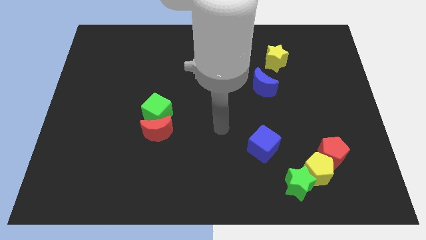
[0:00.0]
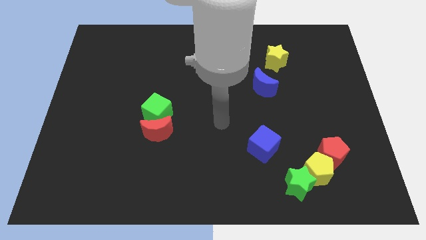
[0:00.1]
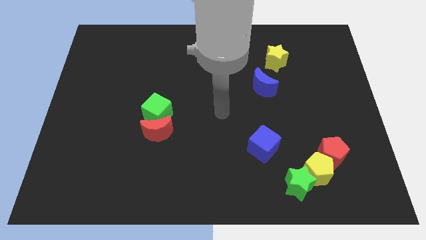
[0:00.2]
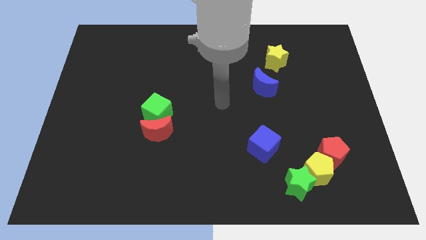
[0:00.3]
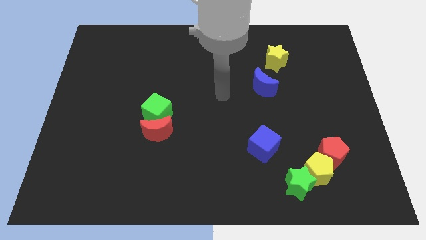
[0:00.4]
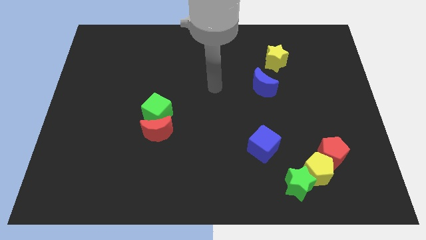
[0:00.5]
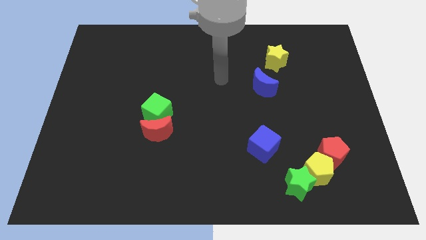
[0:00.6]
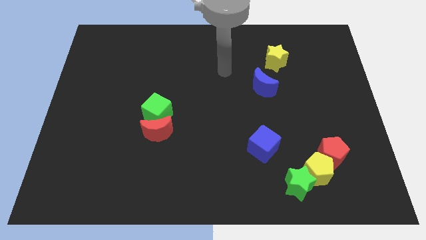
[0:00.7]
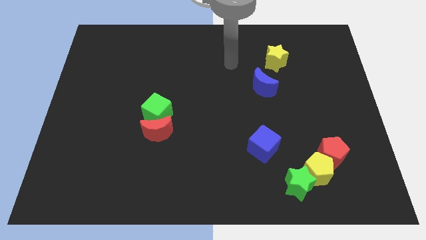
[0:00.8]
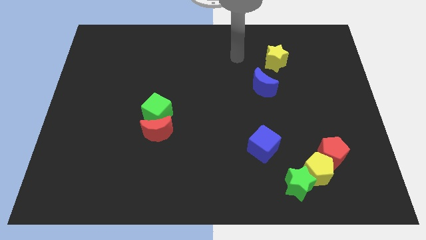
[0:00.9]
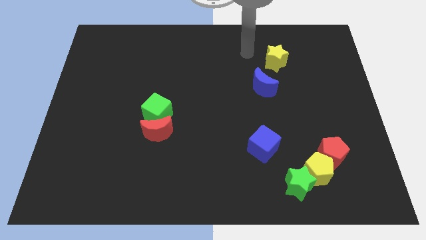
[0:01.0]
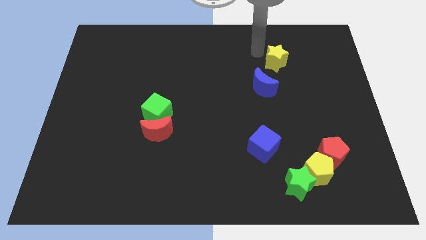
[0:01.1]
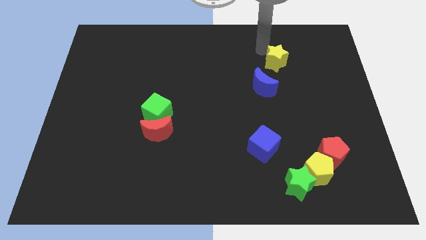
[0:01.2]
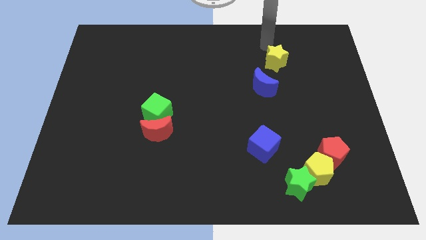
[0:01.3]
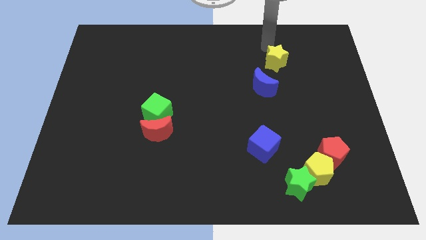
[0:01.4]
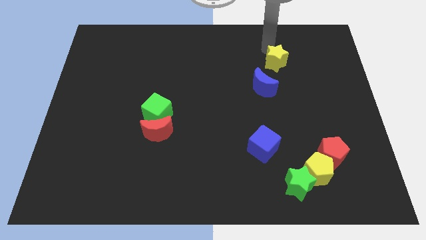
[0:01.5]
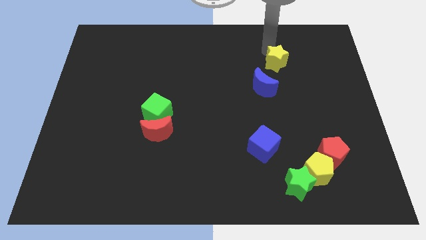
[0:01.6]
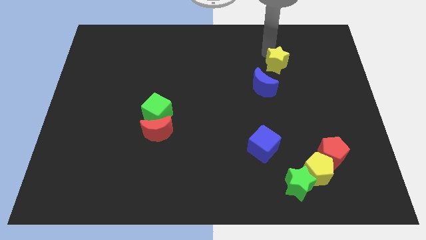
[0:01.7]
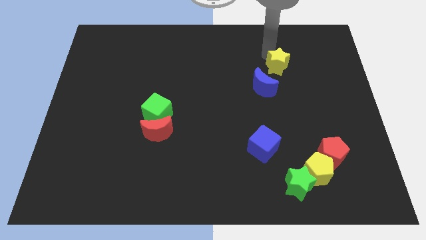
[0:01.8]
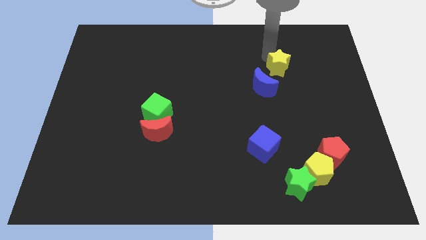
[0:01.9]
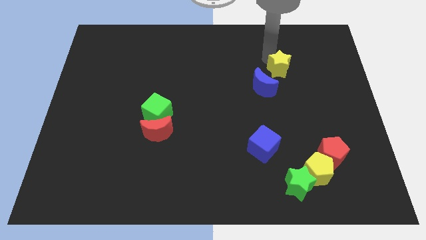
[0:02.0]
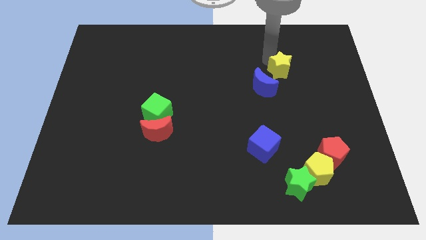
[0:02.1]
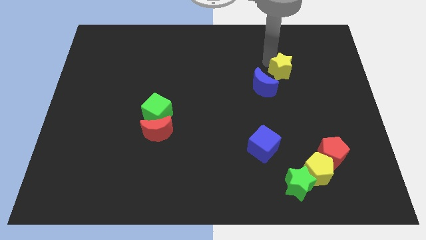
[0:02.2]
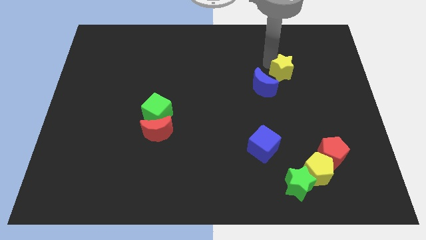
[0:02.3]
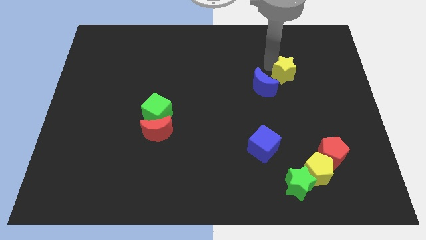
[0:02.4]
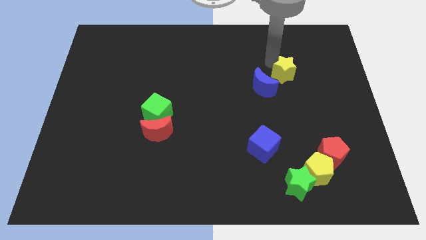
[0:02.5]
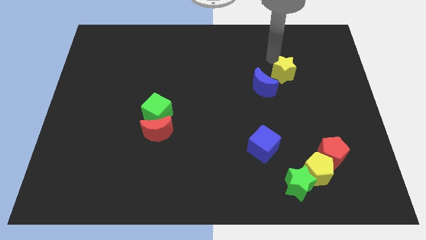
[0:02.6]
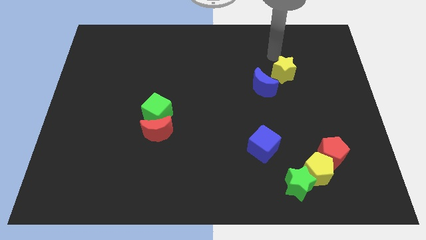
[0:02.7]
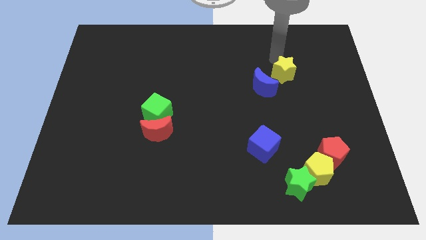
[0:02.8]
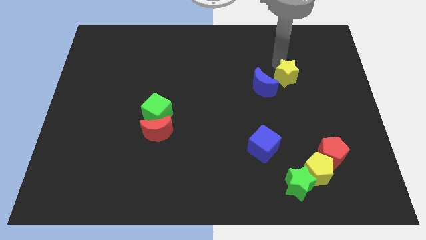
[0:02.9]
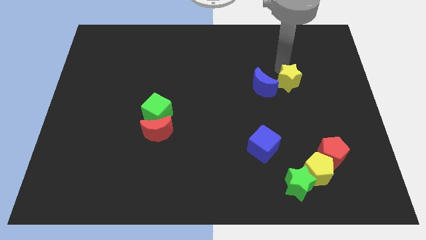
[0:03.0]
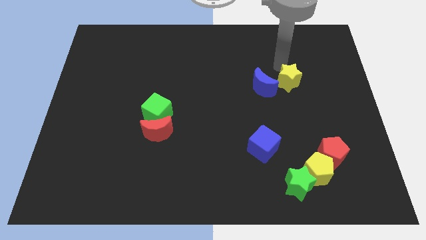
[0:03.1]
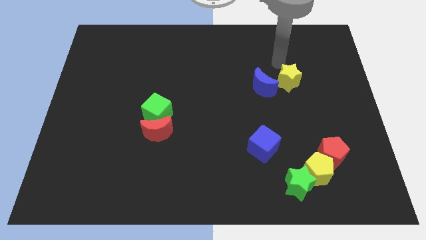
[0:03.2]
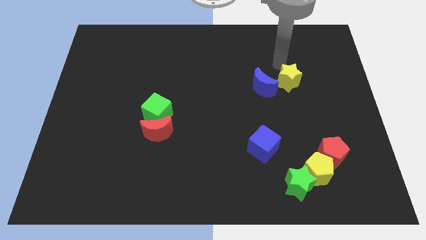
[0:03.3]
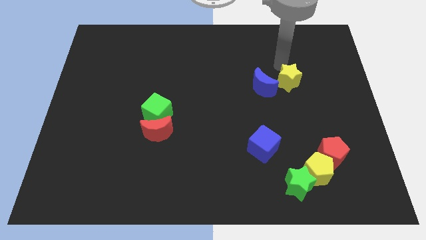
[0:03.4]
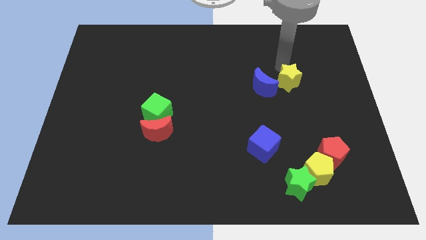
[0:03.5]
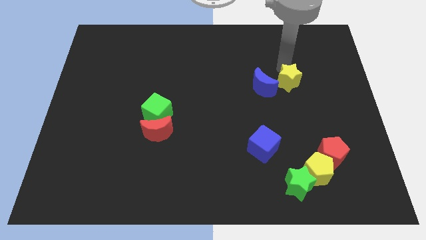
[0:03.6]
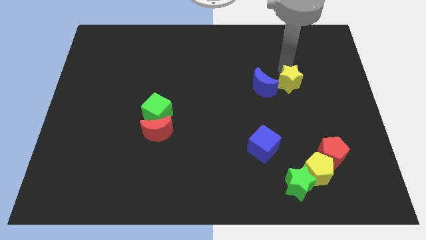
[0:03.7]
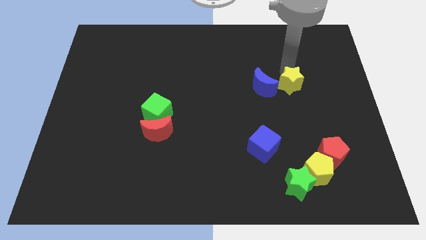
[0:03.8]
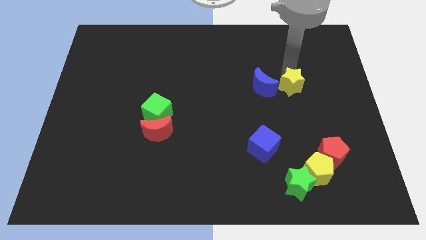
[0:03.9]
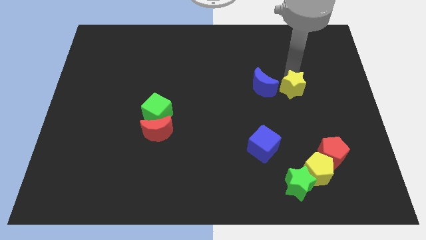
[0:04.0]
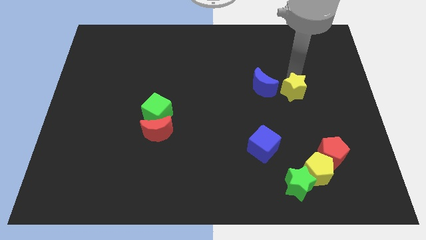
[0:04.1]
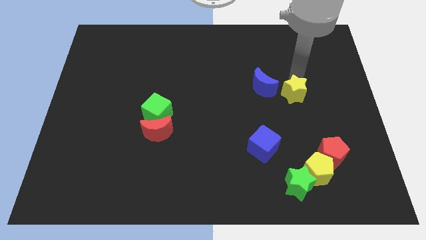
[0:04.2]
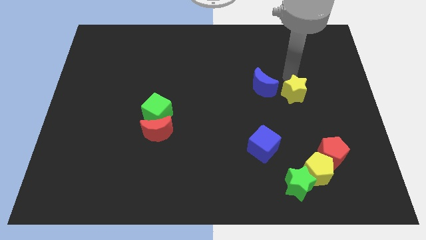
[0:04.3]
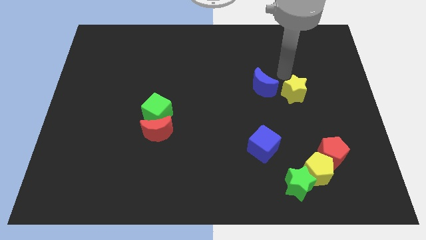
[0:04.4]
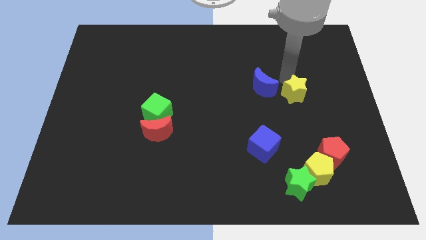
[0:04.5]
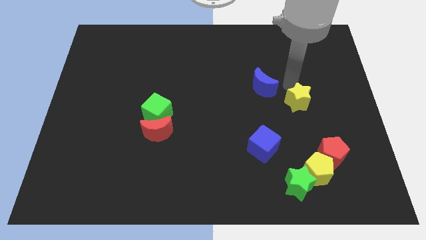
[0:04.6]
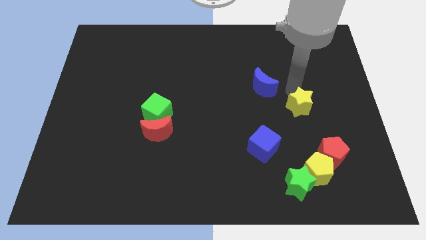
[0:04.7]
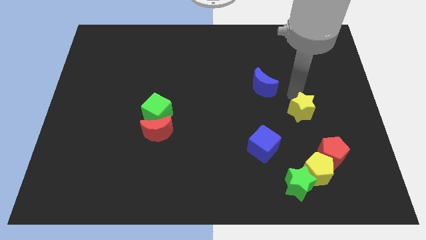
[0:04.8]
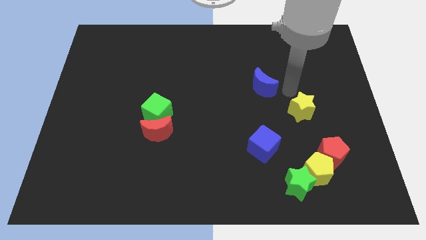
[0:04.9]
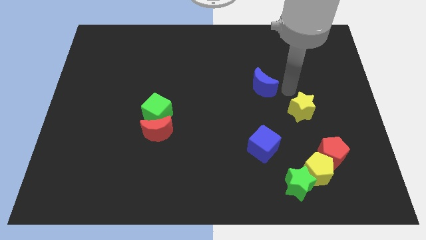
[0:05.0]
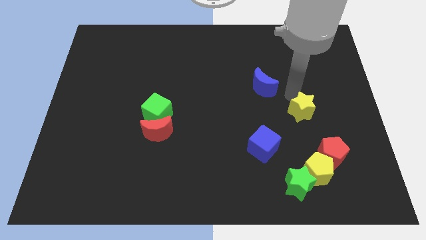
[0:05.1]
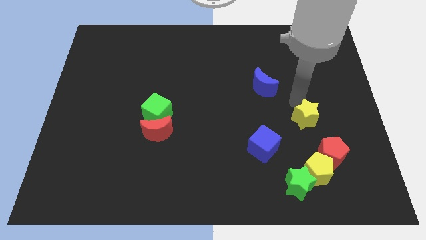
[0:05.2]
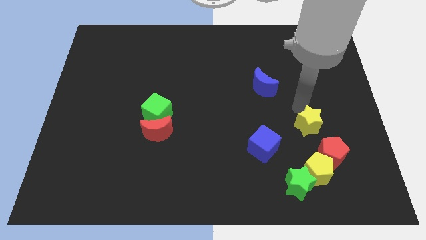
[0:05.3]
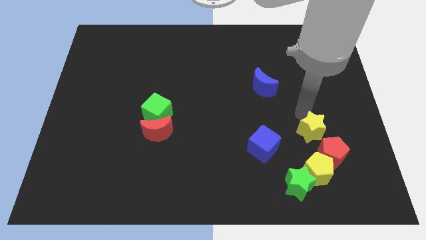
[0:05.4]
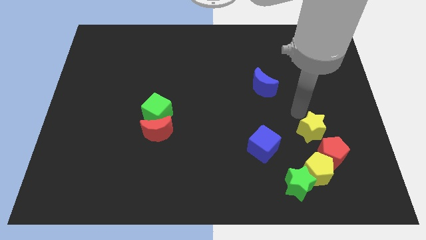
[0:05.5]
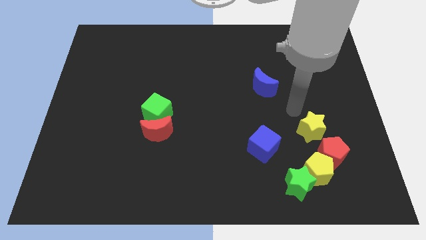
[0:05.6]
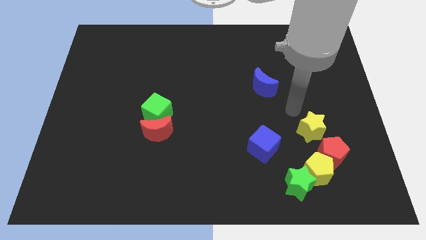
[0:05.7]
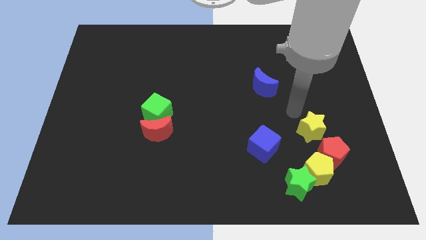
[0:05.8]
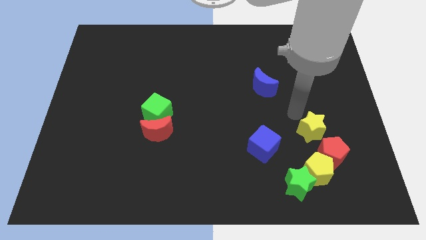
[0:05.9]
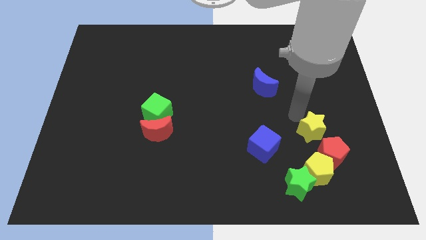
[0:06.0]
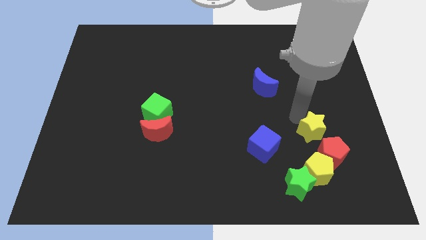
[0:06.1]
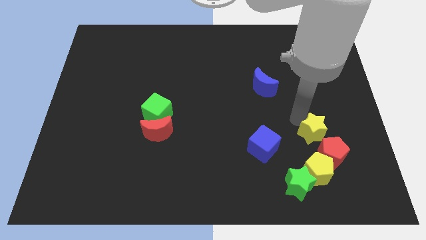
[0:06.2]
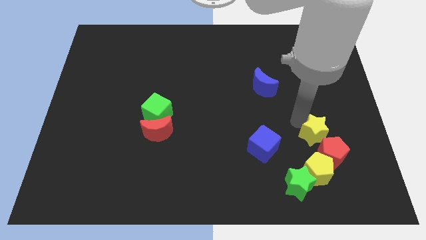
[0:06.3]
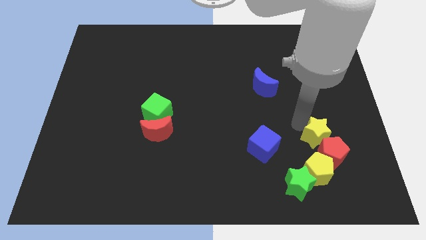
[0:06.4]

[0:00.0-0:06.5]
move the yellow star to the red pentagon

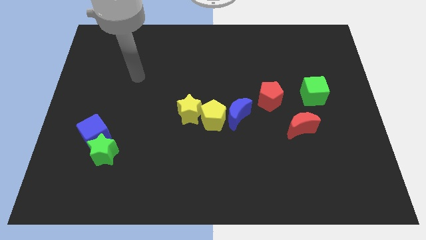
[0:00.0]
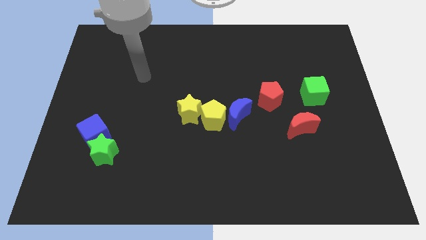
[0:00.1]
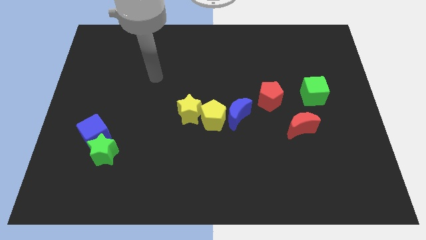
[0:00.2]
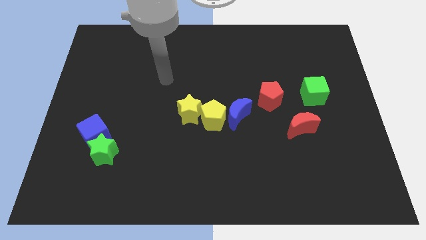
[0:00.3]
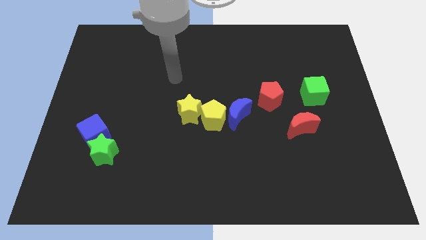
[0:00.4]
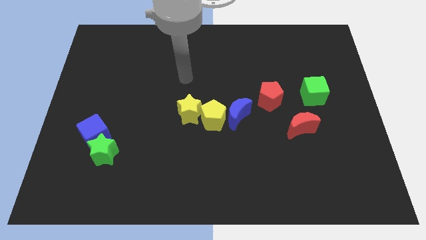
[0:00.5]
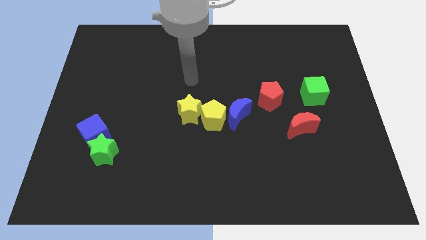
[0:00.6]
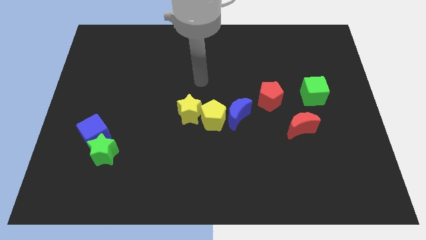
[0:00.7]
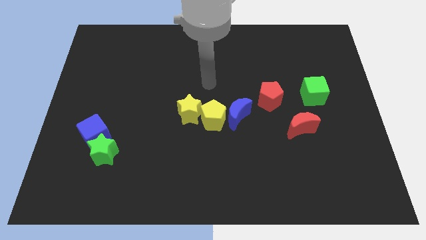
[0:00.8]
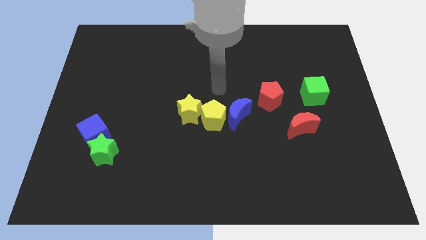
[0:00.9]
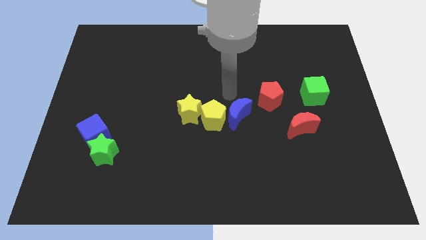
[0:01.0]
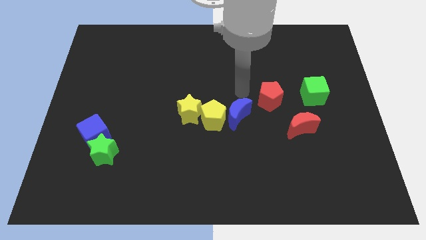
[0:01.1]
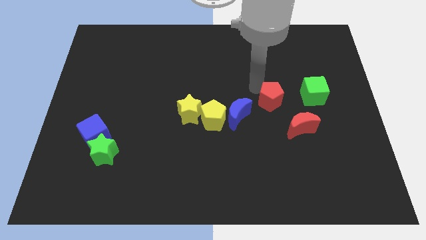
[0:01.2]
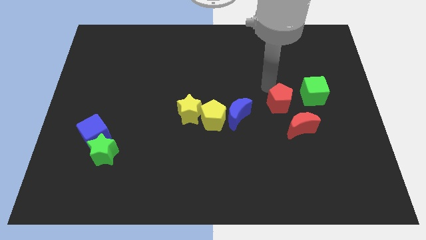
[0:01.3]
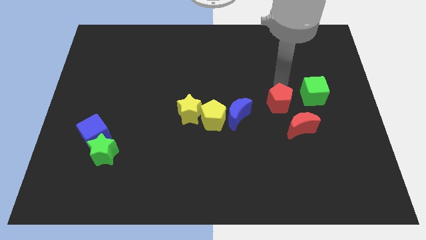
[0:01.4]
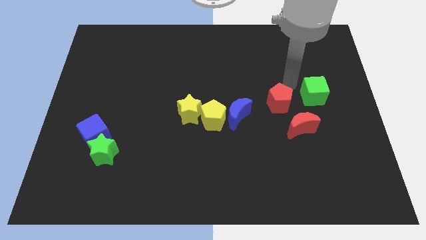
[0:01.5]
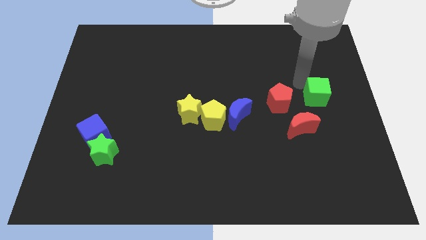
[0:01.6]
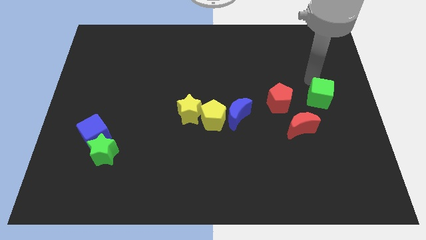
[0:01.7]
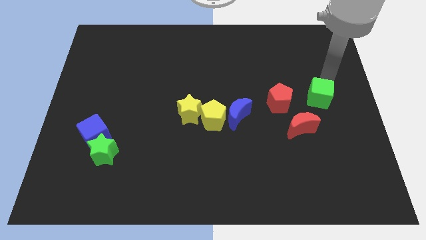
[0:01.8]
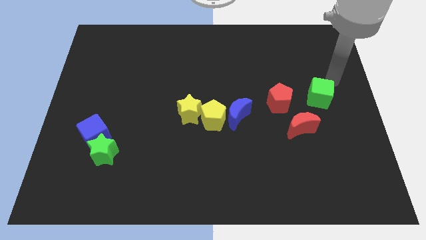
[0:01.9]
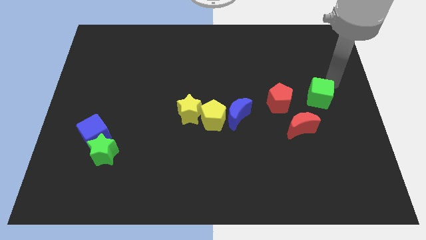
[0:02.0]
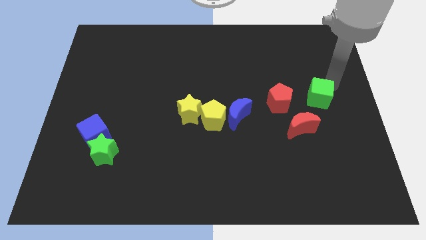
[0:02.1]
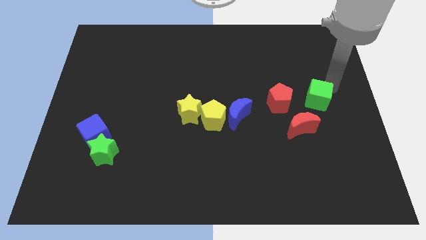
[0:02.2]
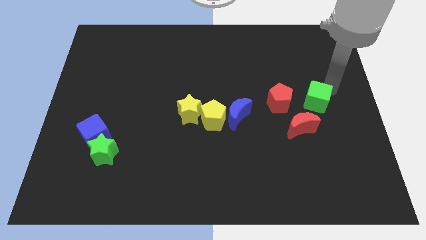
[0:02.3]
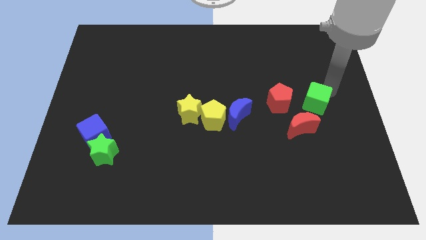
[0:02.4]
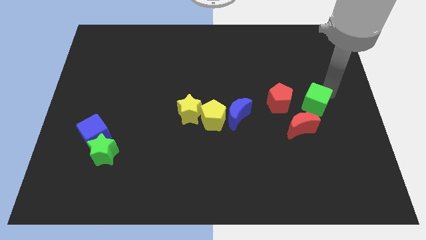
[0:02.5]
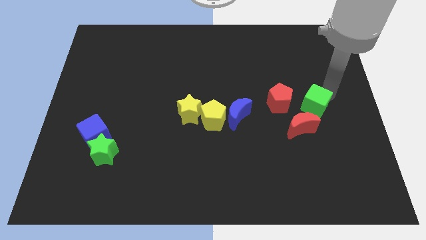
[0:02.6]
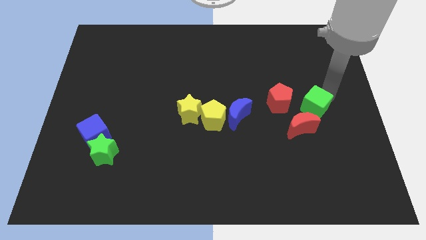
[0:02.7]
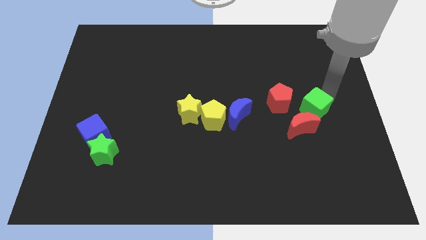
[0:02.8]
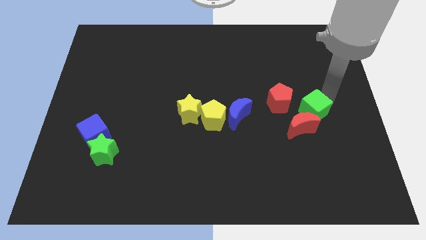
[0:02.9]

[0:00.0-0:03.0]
slide the green cube close to the red moon
